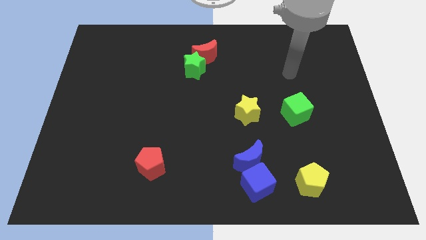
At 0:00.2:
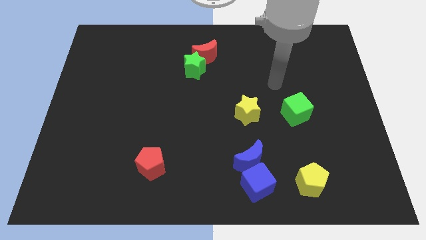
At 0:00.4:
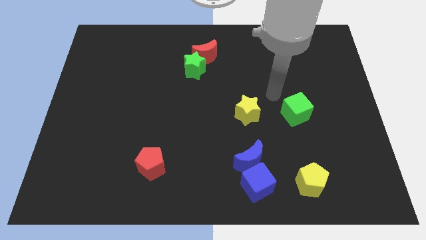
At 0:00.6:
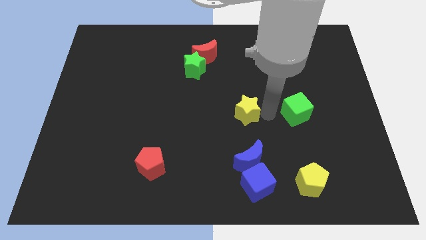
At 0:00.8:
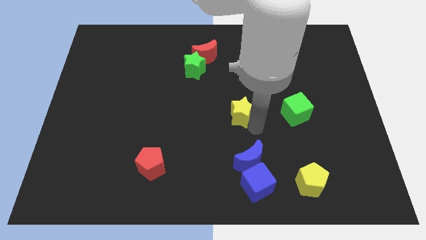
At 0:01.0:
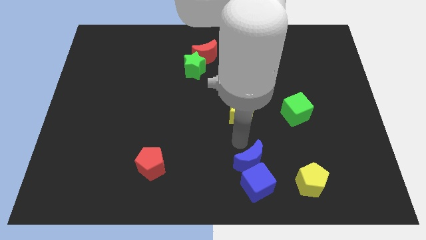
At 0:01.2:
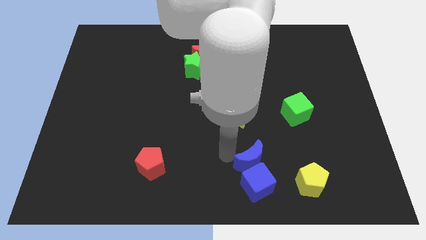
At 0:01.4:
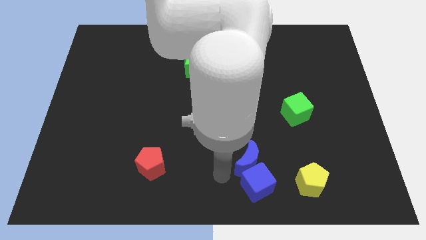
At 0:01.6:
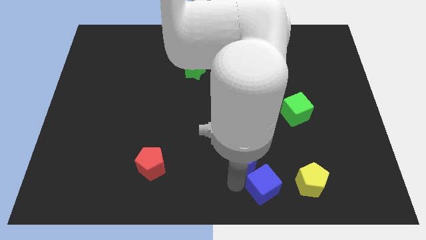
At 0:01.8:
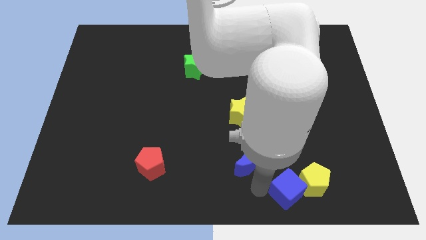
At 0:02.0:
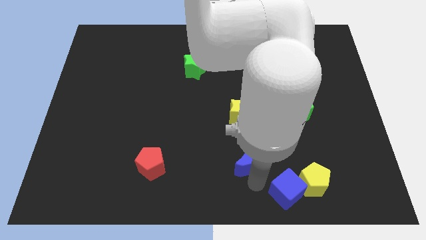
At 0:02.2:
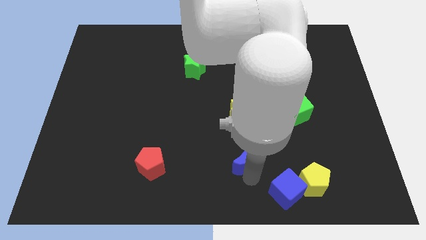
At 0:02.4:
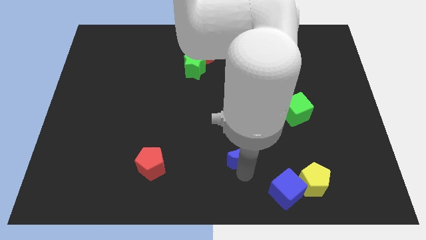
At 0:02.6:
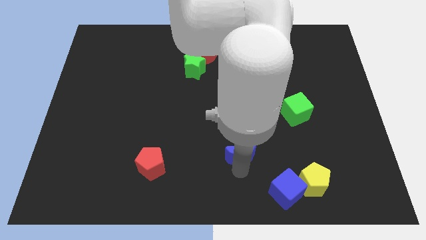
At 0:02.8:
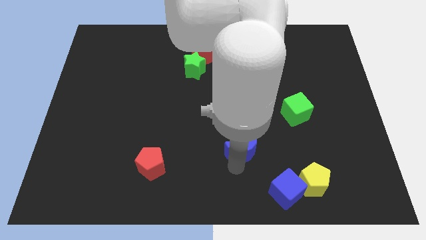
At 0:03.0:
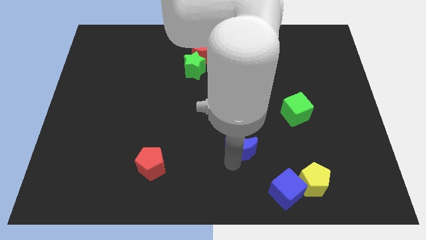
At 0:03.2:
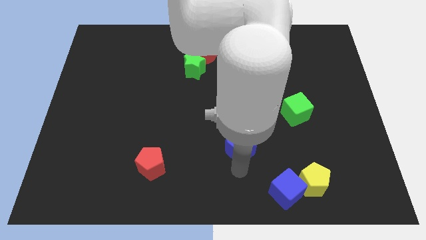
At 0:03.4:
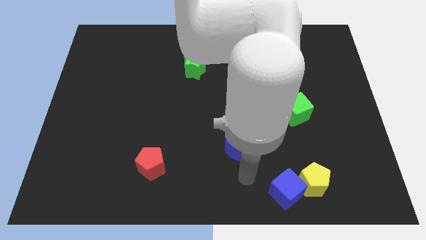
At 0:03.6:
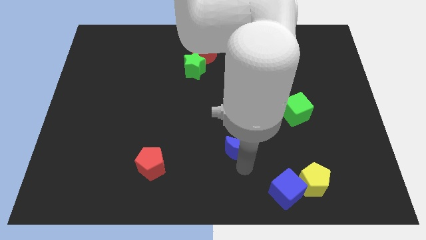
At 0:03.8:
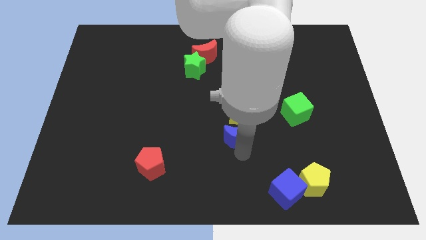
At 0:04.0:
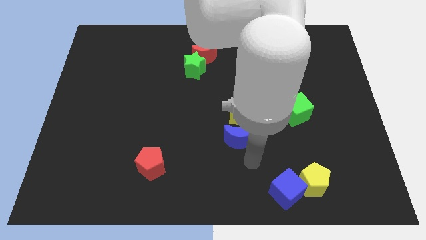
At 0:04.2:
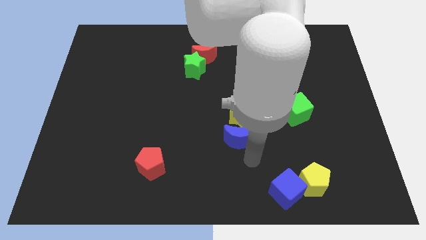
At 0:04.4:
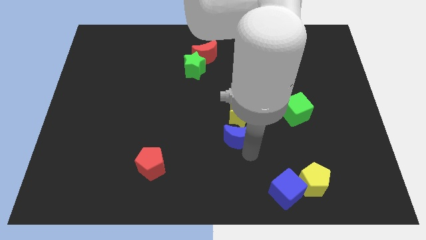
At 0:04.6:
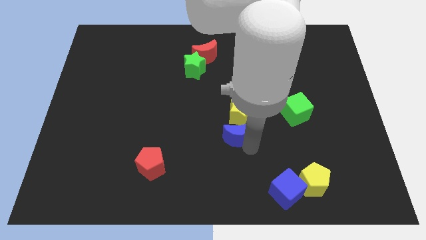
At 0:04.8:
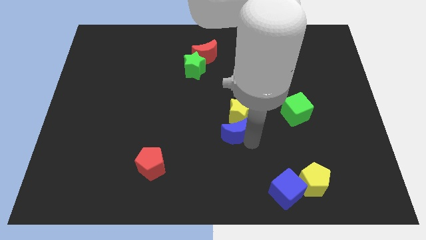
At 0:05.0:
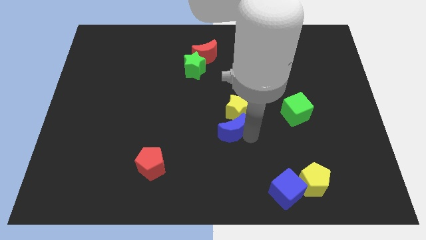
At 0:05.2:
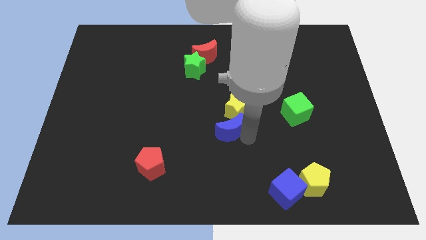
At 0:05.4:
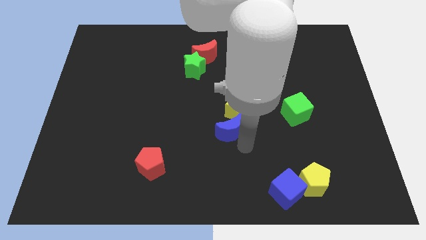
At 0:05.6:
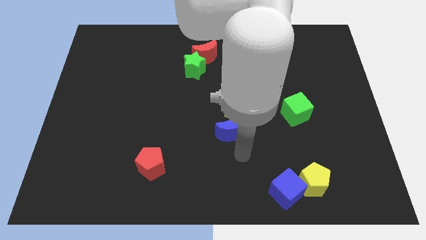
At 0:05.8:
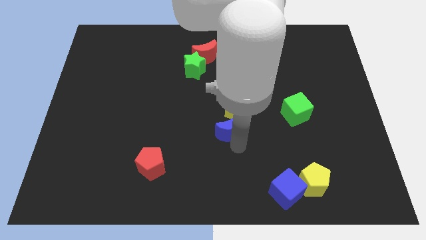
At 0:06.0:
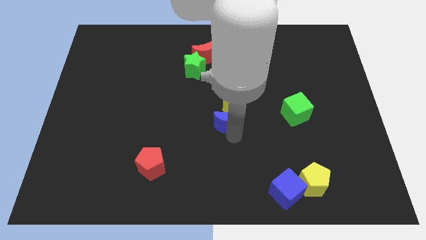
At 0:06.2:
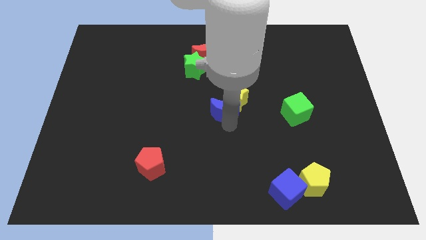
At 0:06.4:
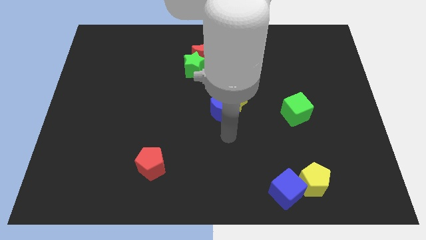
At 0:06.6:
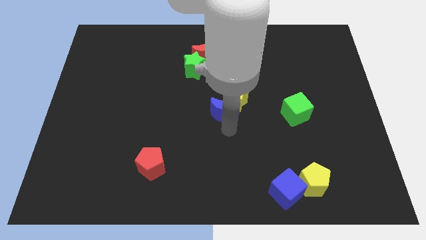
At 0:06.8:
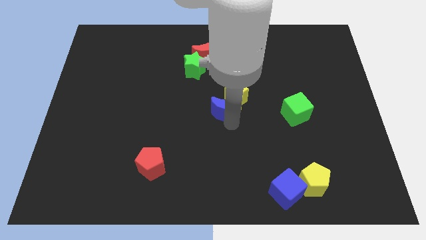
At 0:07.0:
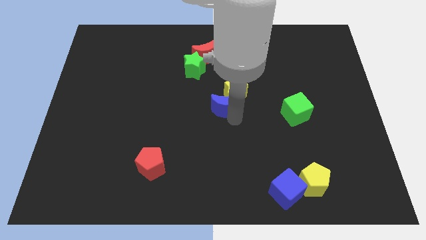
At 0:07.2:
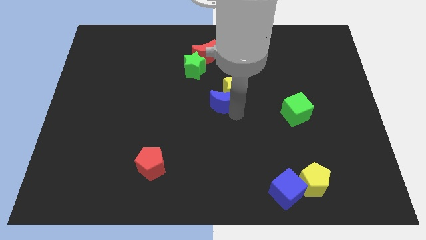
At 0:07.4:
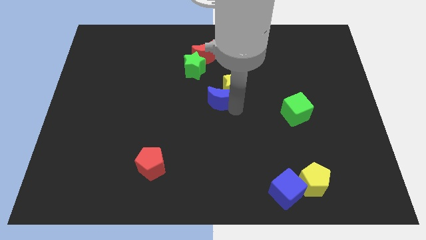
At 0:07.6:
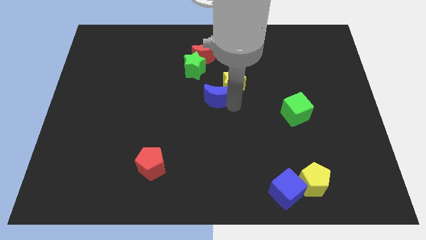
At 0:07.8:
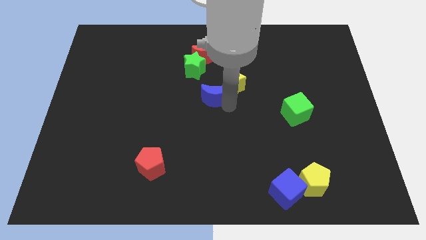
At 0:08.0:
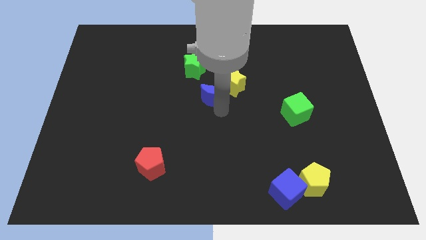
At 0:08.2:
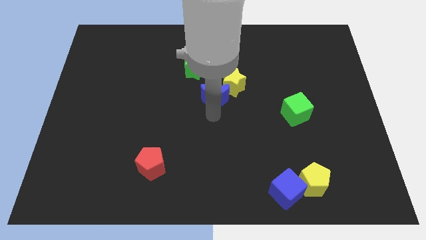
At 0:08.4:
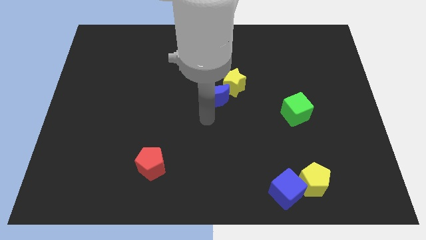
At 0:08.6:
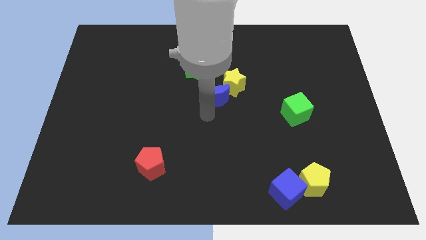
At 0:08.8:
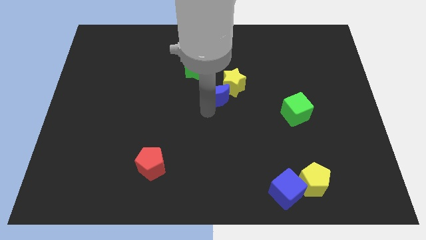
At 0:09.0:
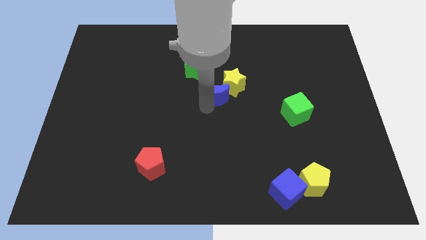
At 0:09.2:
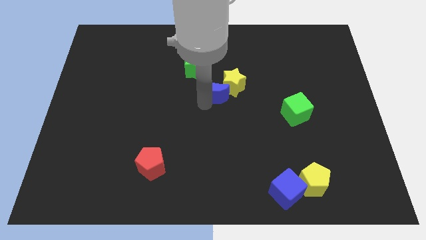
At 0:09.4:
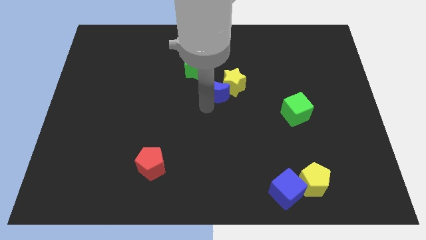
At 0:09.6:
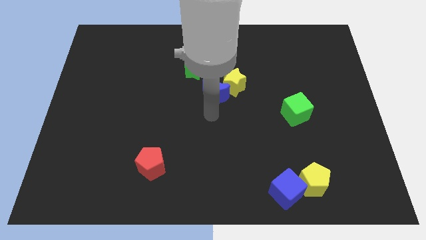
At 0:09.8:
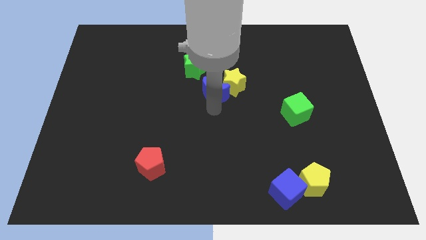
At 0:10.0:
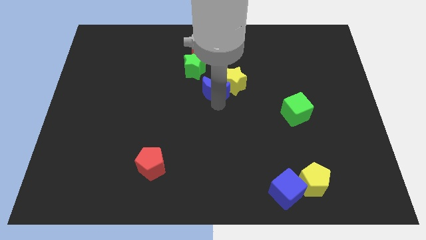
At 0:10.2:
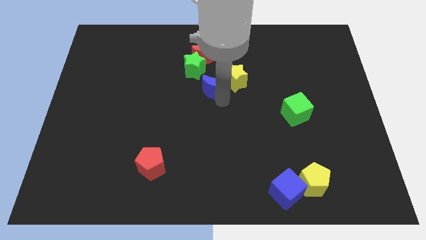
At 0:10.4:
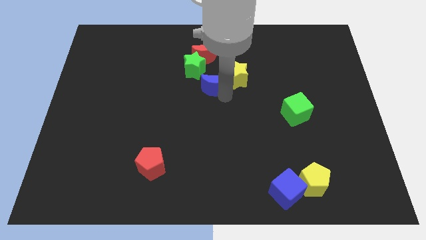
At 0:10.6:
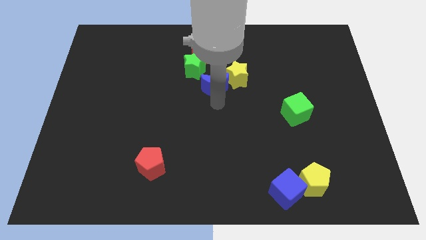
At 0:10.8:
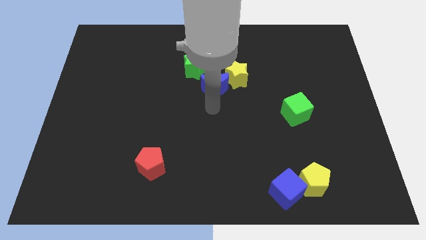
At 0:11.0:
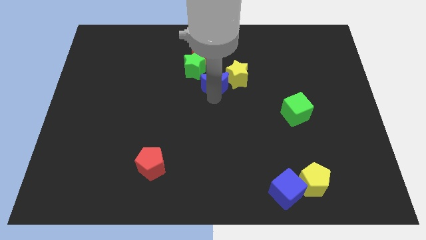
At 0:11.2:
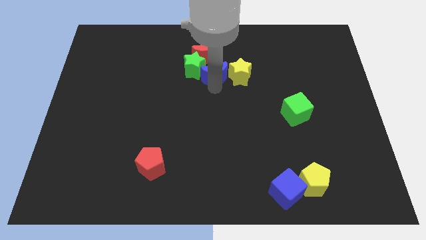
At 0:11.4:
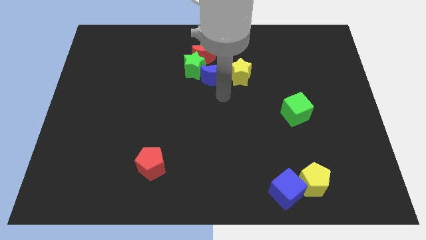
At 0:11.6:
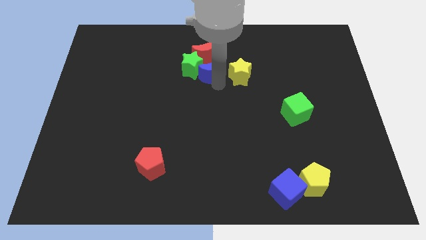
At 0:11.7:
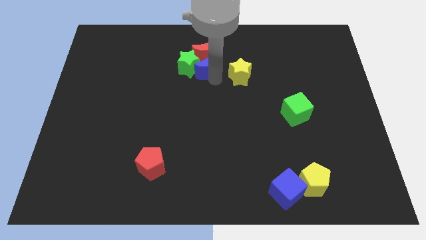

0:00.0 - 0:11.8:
slide the blue moon to the red moon

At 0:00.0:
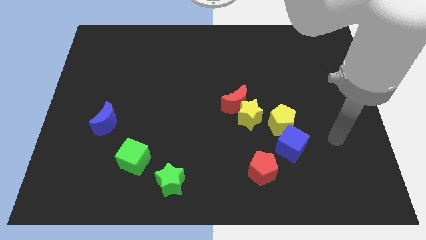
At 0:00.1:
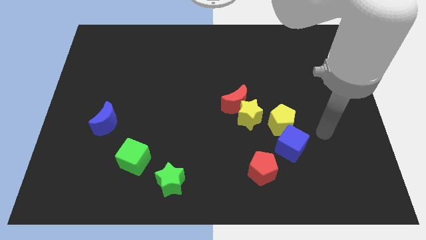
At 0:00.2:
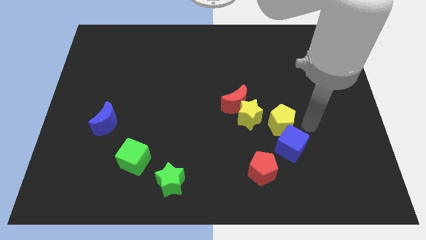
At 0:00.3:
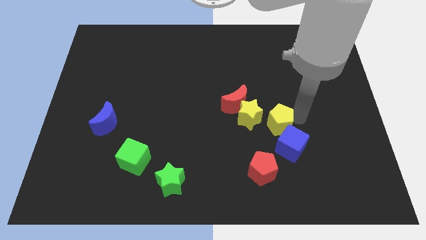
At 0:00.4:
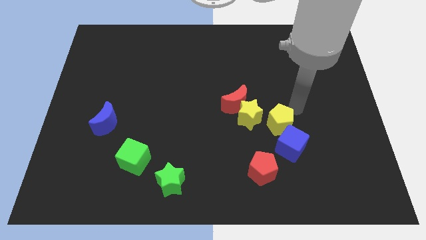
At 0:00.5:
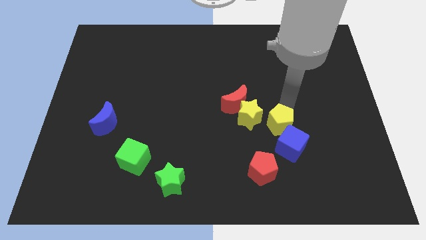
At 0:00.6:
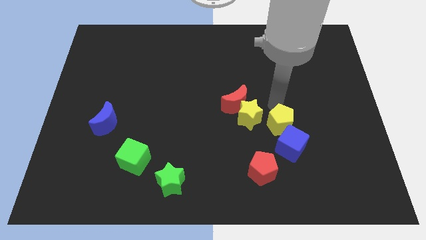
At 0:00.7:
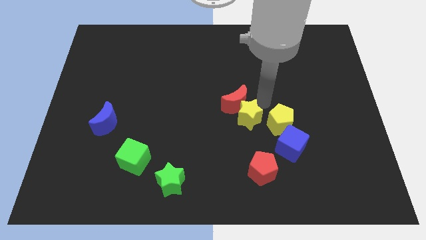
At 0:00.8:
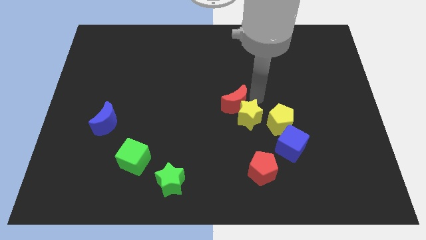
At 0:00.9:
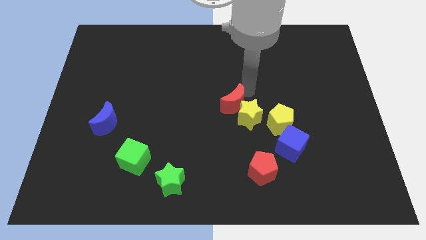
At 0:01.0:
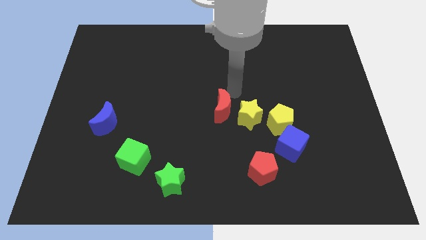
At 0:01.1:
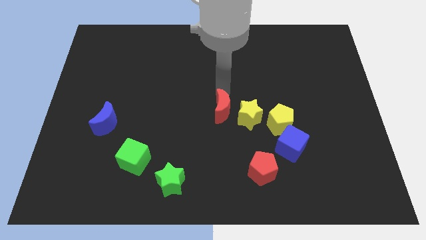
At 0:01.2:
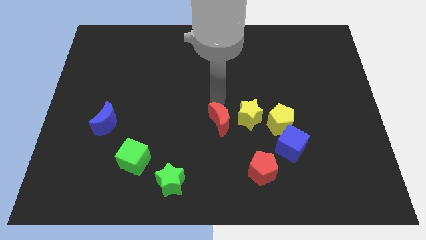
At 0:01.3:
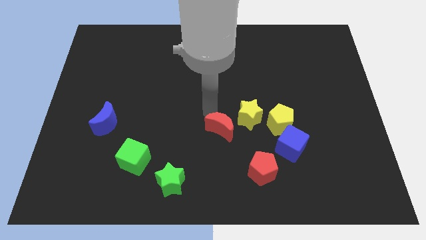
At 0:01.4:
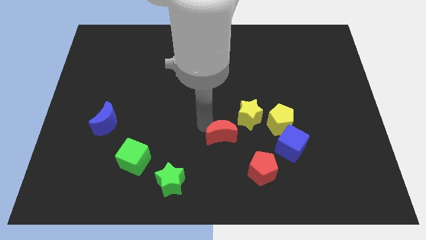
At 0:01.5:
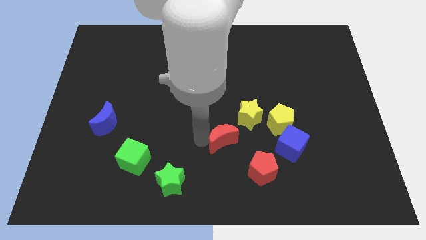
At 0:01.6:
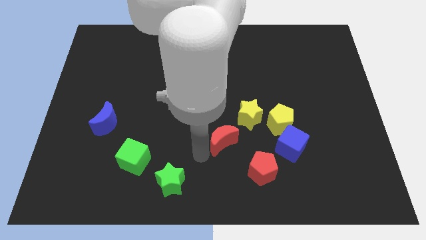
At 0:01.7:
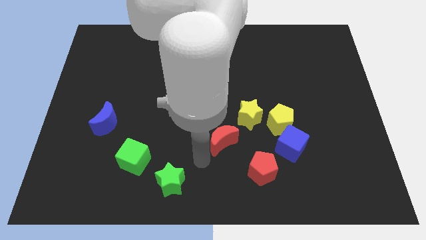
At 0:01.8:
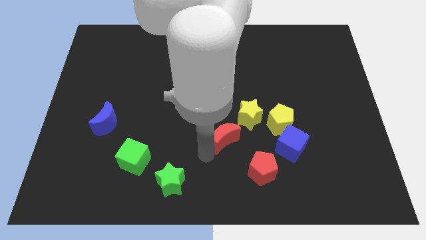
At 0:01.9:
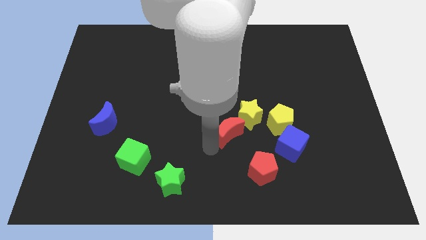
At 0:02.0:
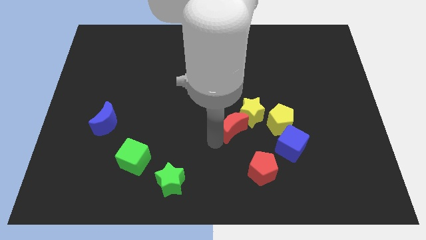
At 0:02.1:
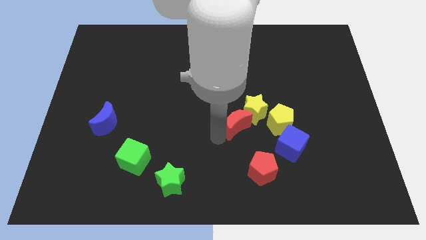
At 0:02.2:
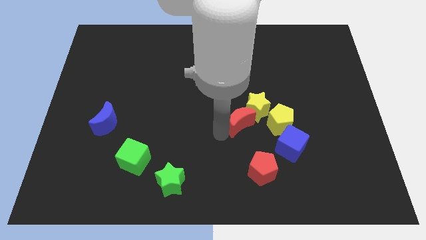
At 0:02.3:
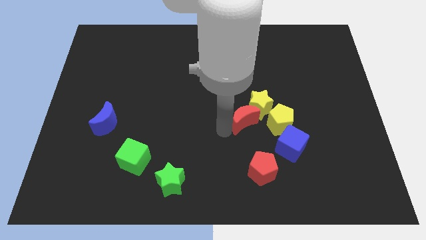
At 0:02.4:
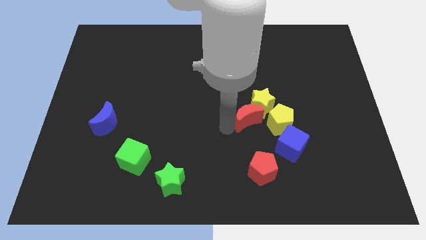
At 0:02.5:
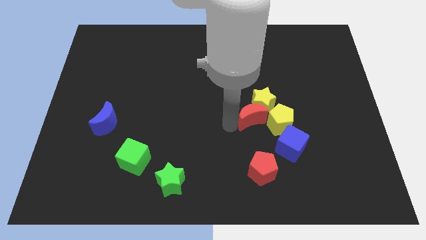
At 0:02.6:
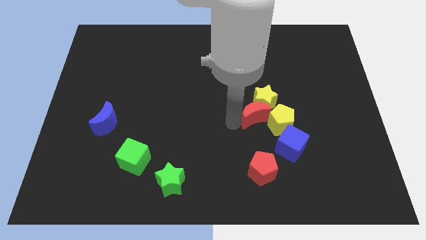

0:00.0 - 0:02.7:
slide the red moon next to the yellow pentagon
